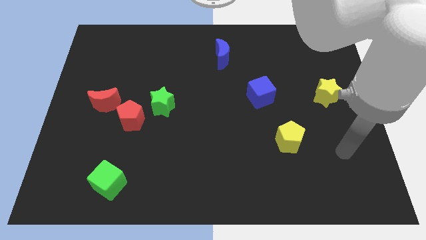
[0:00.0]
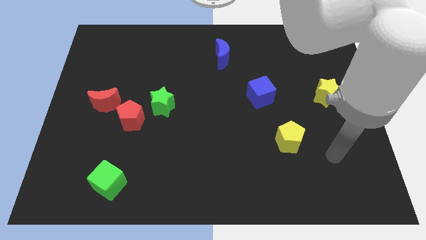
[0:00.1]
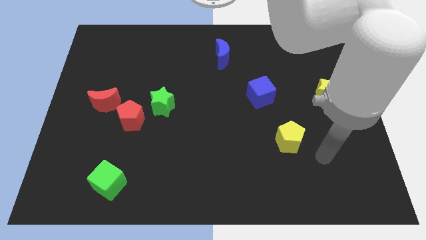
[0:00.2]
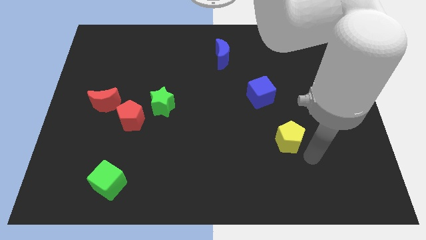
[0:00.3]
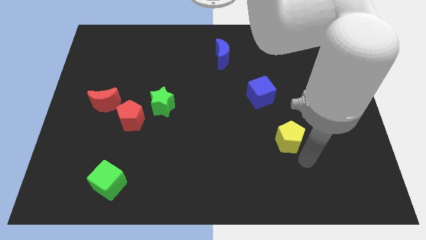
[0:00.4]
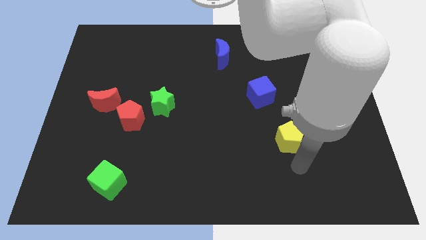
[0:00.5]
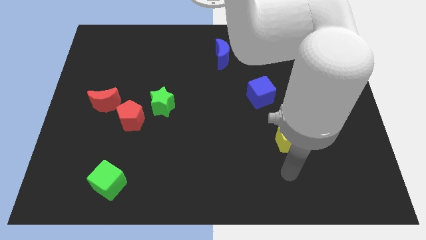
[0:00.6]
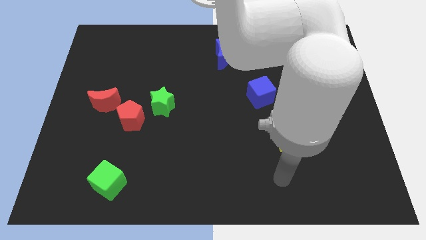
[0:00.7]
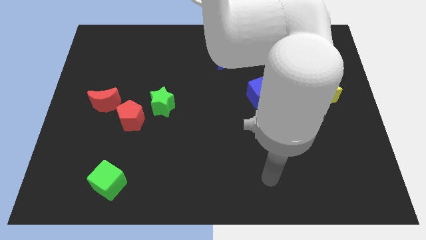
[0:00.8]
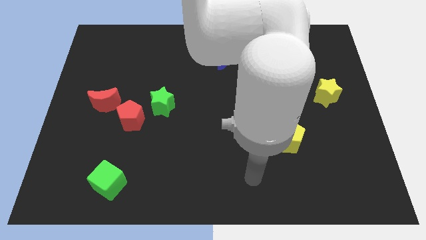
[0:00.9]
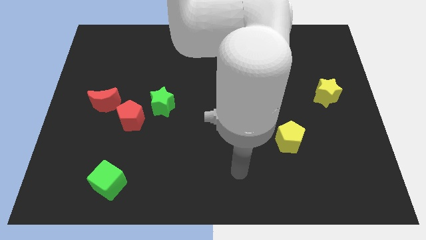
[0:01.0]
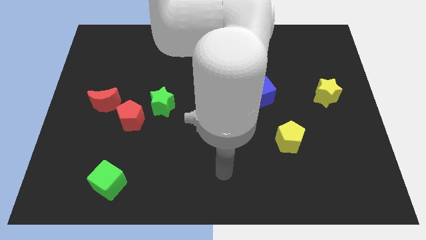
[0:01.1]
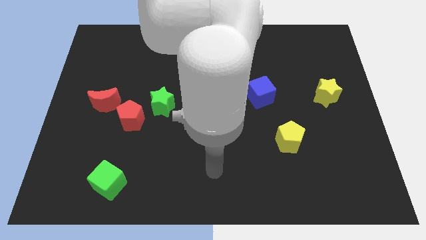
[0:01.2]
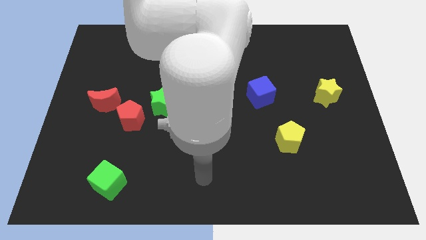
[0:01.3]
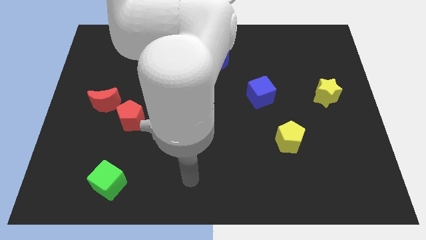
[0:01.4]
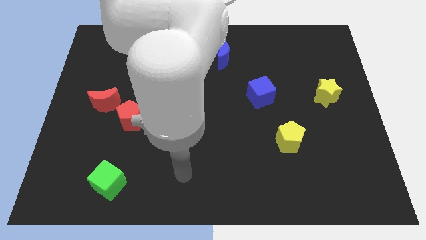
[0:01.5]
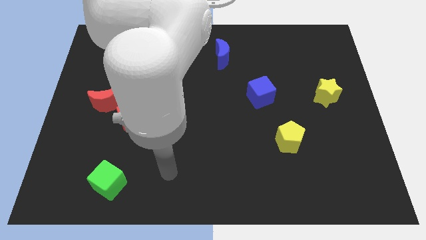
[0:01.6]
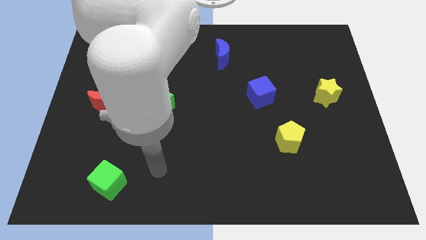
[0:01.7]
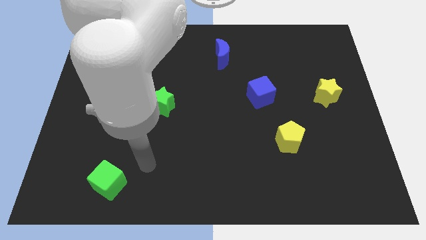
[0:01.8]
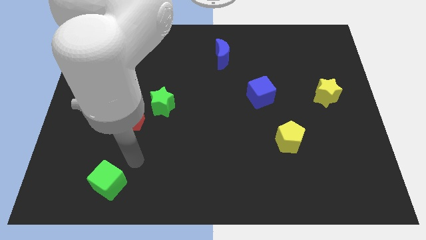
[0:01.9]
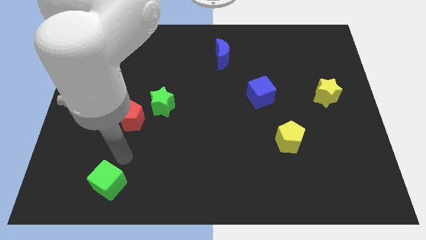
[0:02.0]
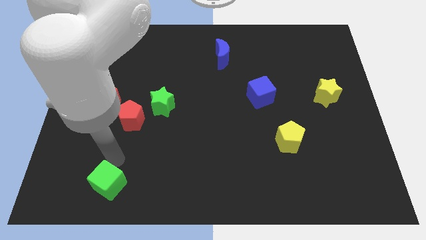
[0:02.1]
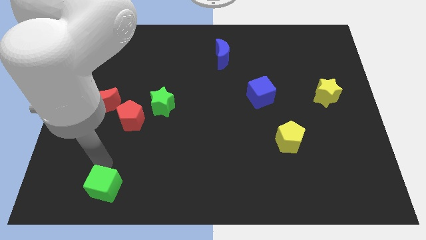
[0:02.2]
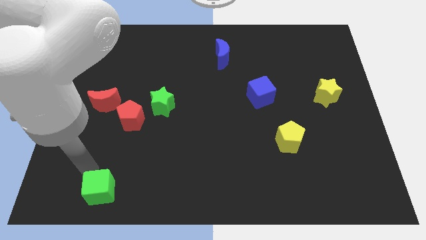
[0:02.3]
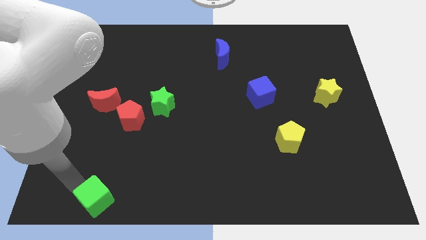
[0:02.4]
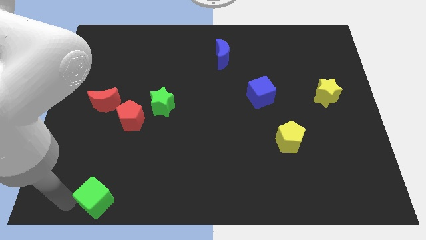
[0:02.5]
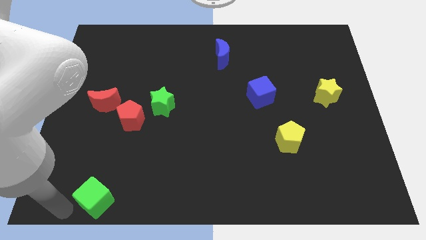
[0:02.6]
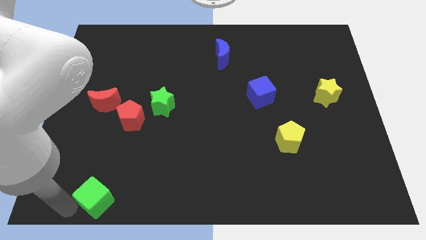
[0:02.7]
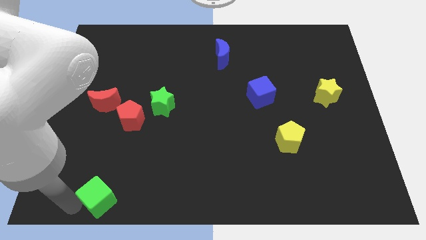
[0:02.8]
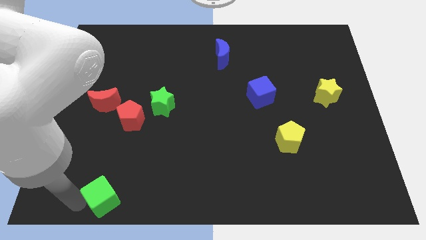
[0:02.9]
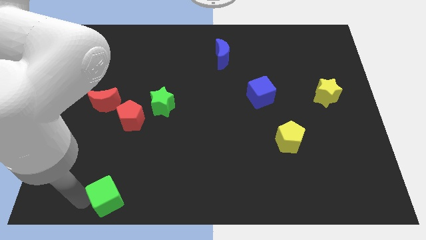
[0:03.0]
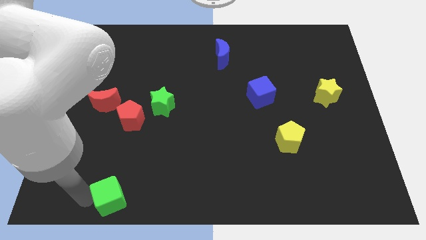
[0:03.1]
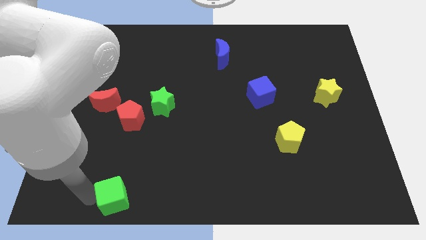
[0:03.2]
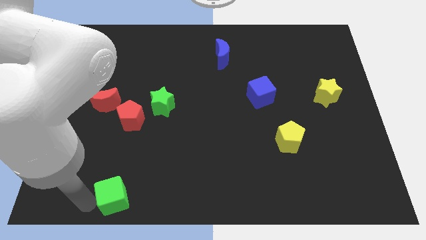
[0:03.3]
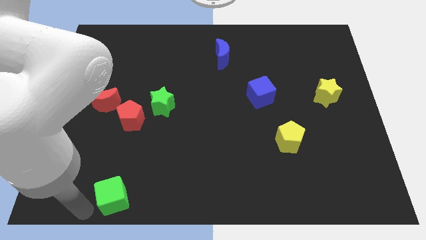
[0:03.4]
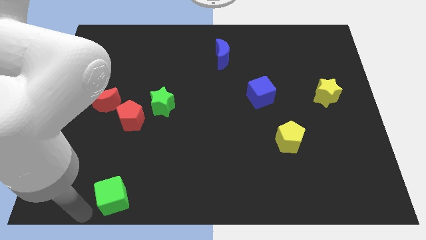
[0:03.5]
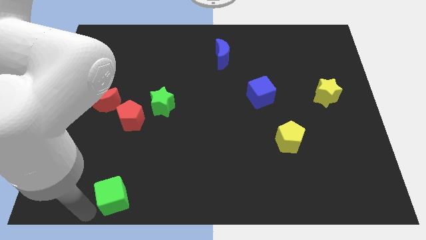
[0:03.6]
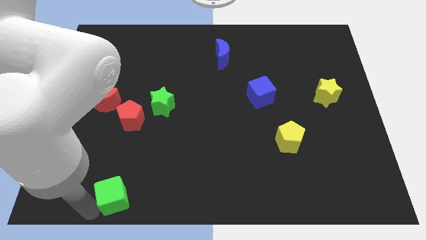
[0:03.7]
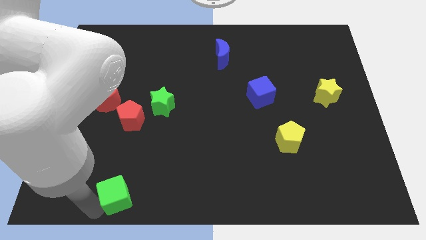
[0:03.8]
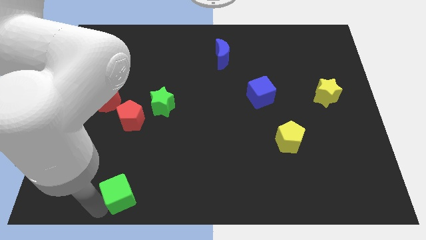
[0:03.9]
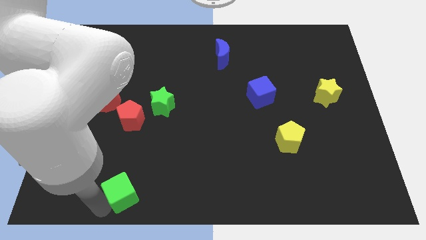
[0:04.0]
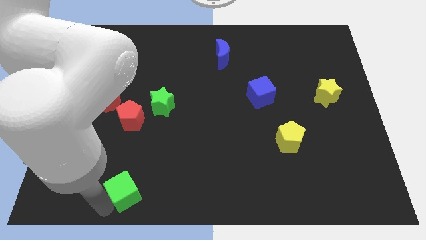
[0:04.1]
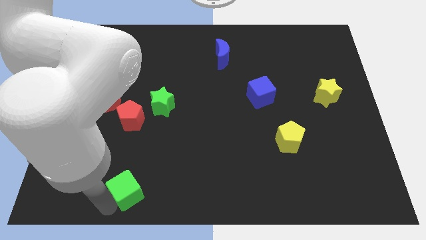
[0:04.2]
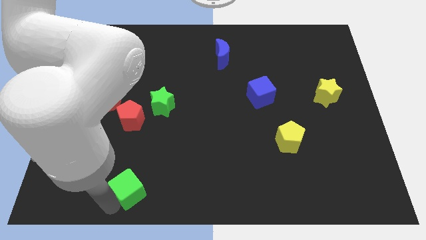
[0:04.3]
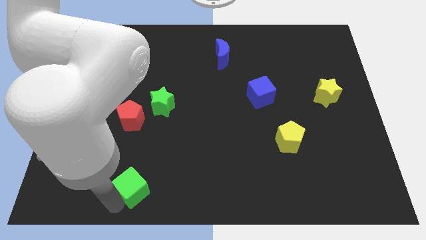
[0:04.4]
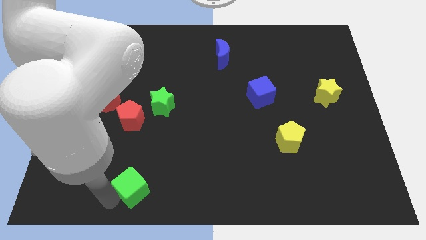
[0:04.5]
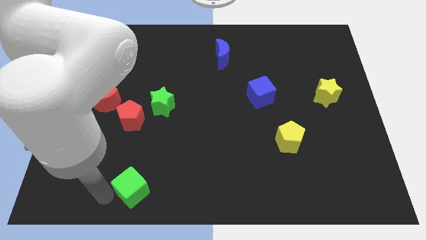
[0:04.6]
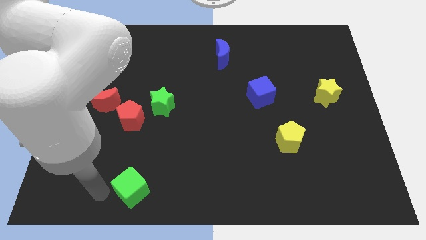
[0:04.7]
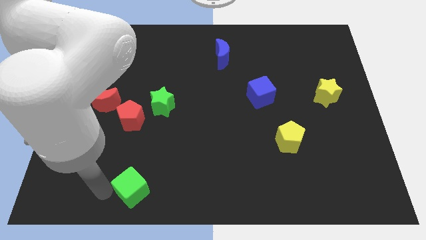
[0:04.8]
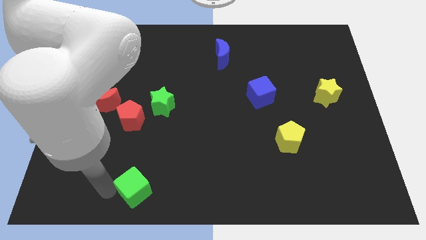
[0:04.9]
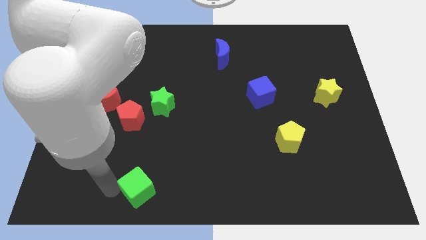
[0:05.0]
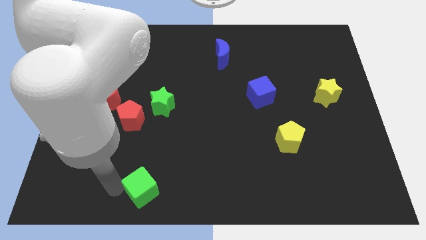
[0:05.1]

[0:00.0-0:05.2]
move the green cube a bit right

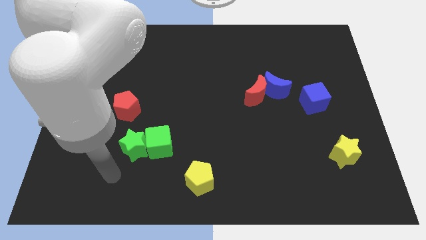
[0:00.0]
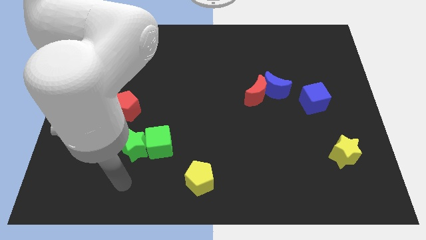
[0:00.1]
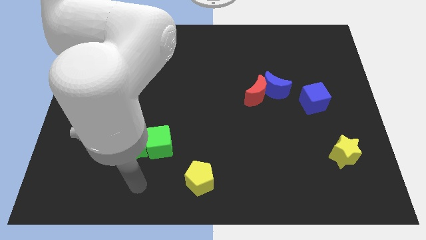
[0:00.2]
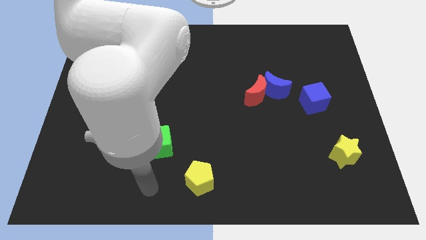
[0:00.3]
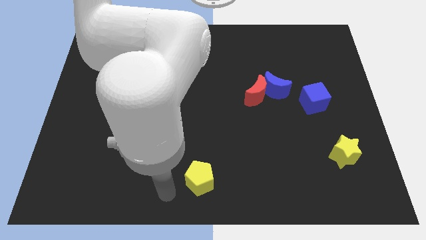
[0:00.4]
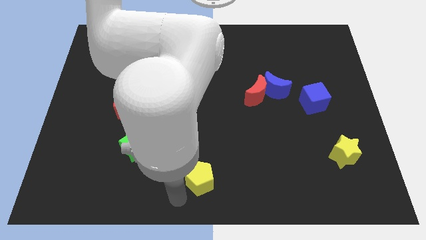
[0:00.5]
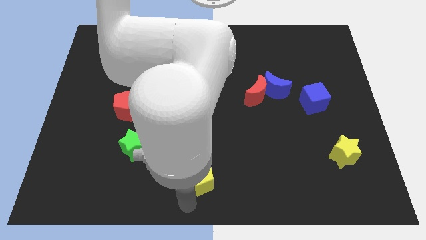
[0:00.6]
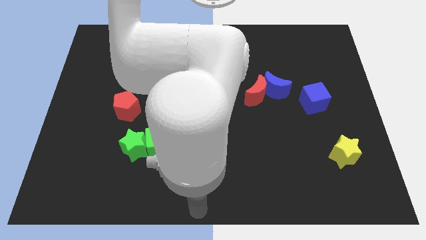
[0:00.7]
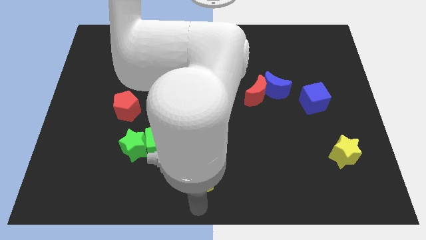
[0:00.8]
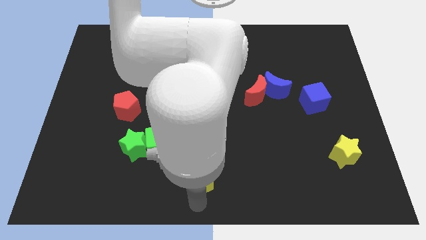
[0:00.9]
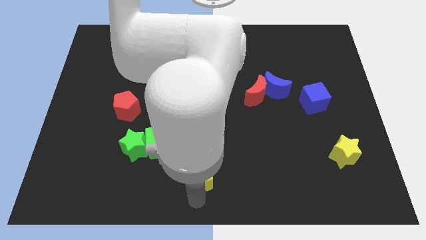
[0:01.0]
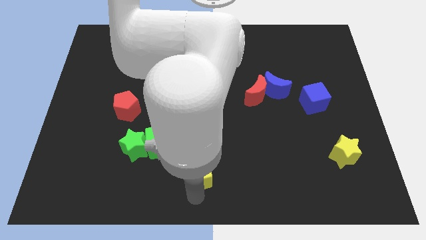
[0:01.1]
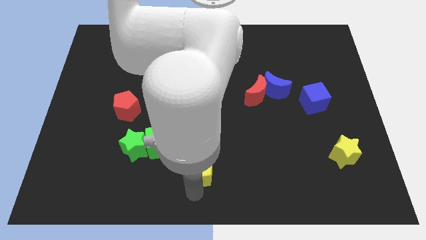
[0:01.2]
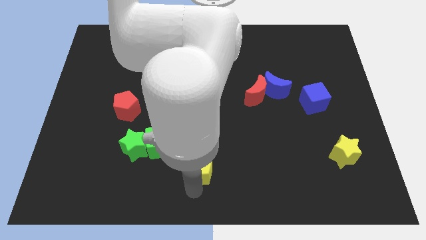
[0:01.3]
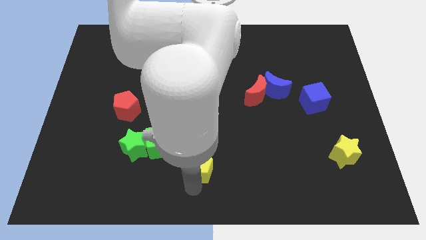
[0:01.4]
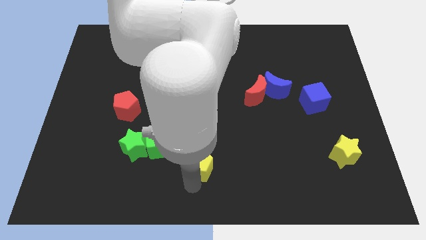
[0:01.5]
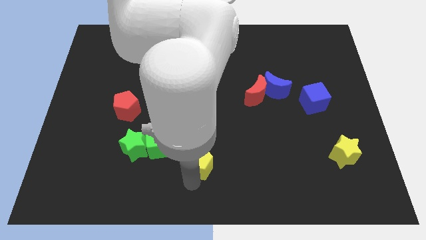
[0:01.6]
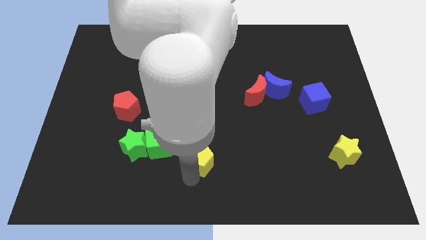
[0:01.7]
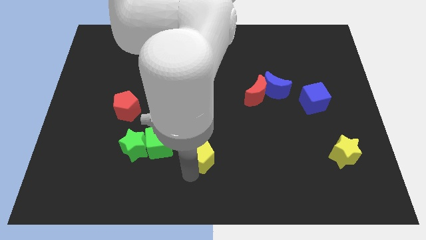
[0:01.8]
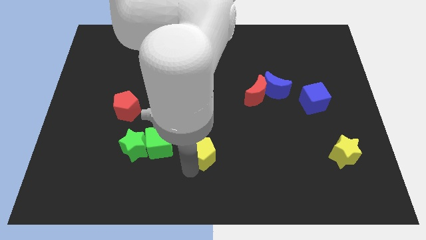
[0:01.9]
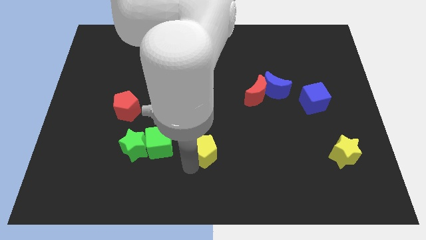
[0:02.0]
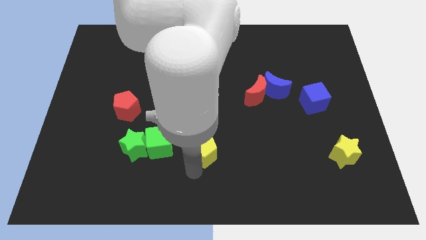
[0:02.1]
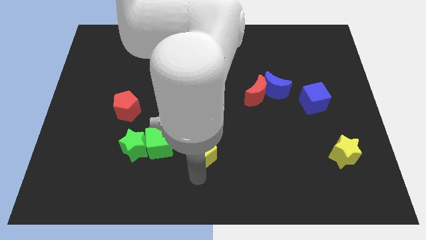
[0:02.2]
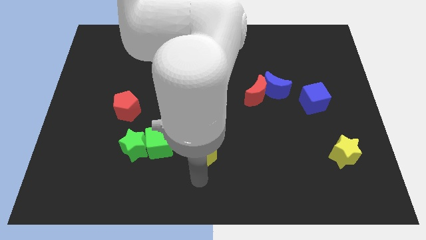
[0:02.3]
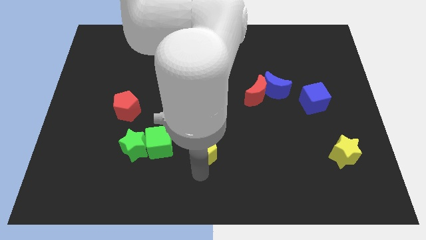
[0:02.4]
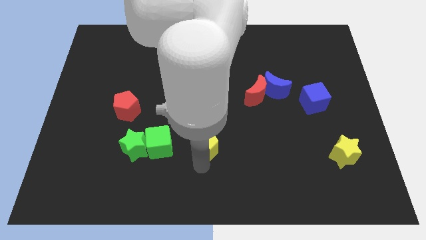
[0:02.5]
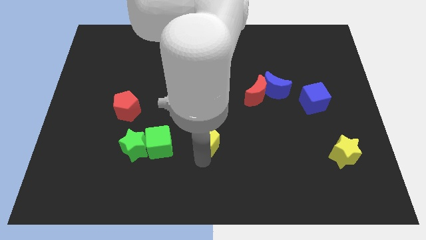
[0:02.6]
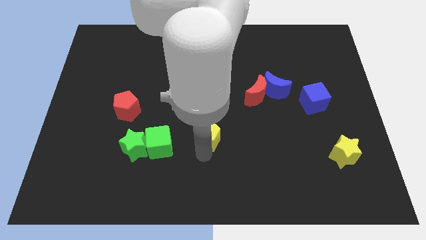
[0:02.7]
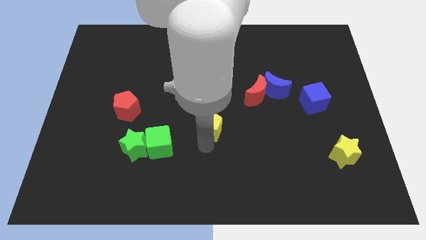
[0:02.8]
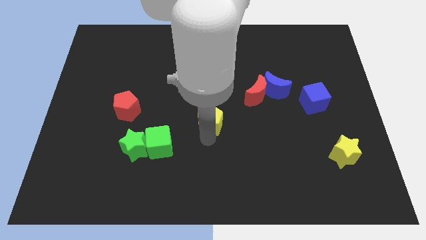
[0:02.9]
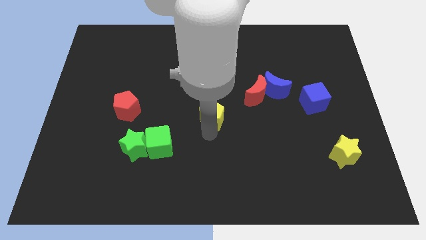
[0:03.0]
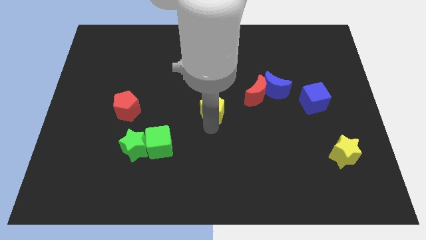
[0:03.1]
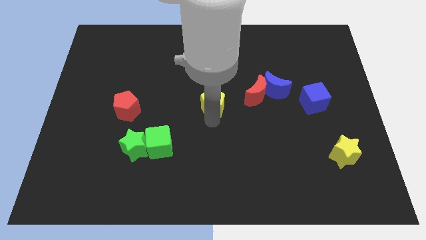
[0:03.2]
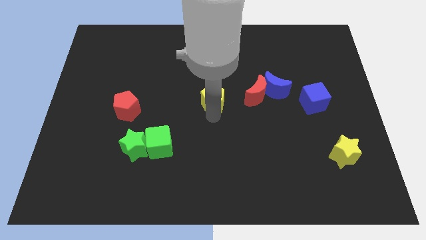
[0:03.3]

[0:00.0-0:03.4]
slide the yellow pentagon up

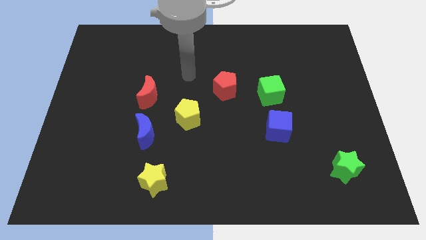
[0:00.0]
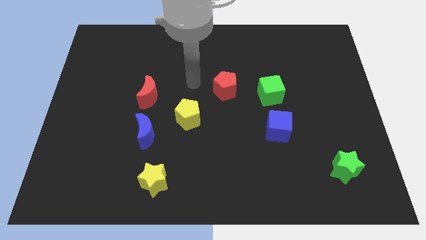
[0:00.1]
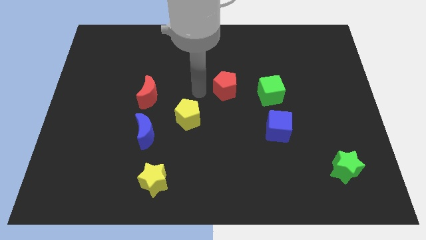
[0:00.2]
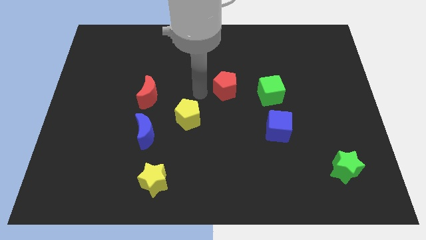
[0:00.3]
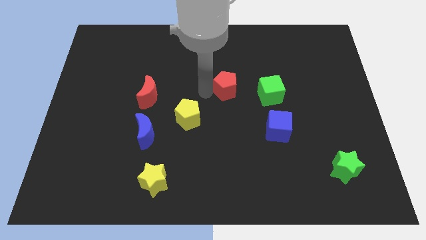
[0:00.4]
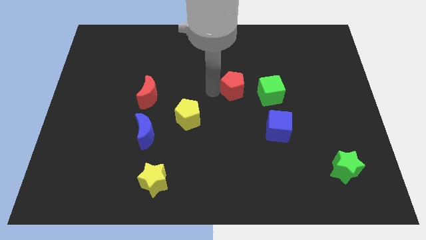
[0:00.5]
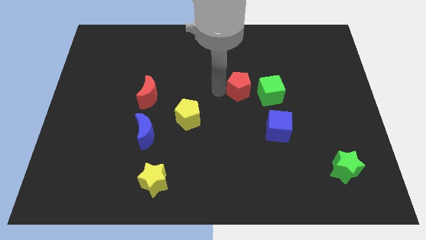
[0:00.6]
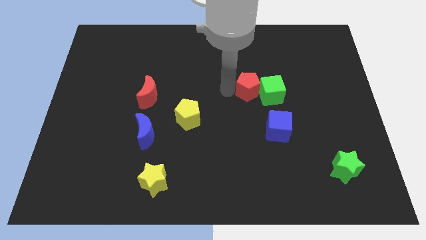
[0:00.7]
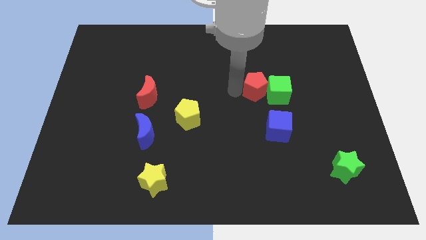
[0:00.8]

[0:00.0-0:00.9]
slide the red pentagon right a little
